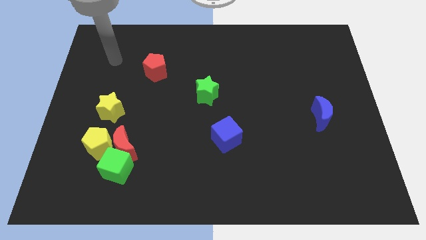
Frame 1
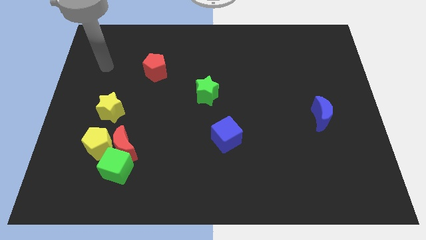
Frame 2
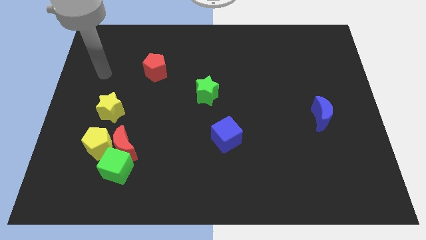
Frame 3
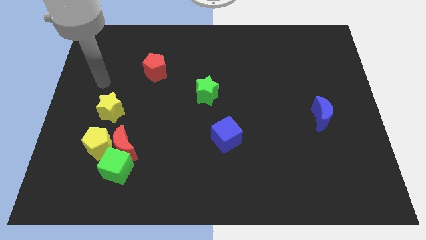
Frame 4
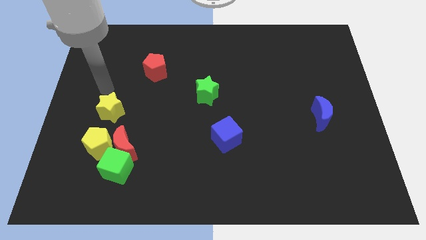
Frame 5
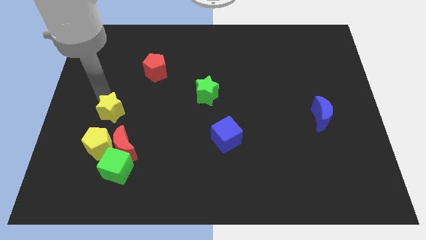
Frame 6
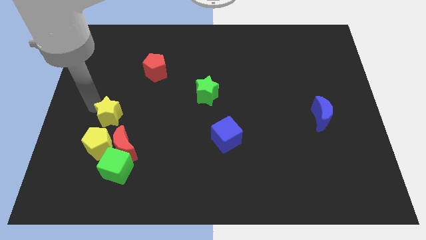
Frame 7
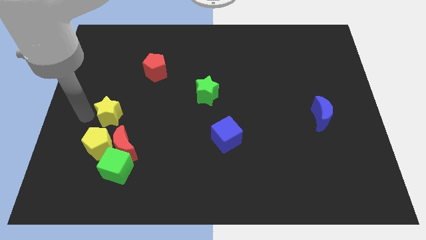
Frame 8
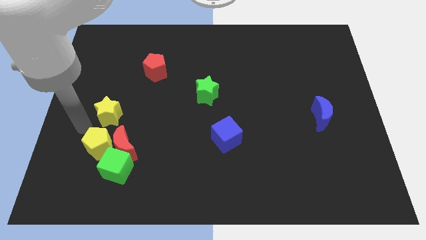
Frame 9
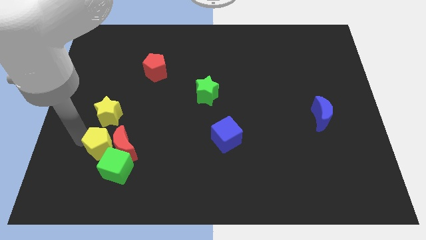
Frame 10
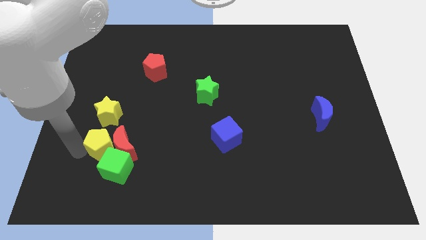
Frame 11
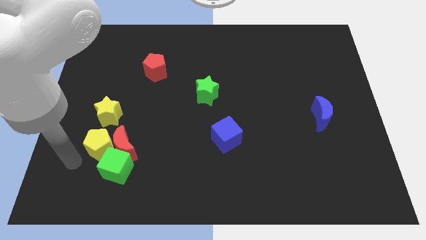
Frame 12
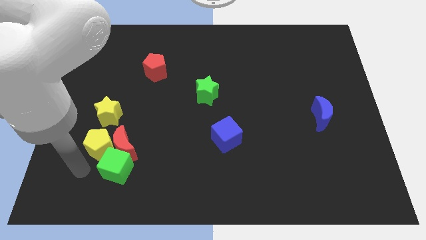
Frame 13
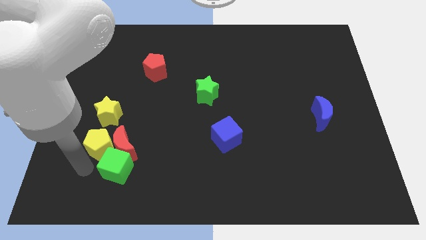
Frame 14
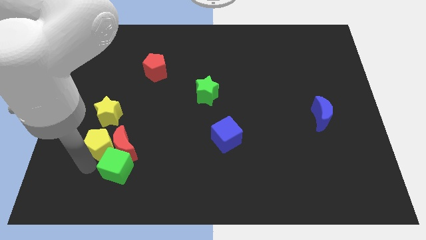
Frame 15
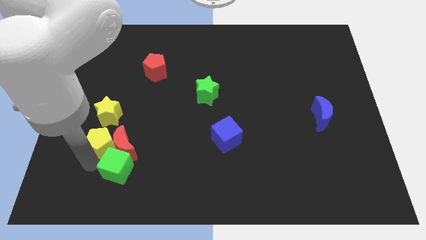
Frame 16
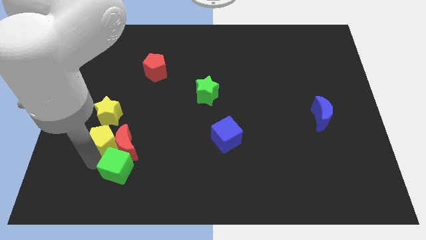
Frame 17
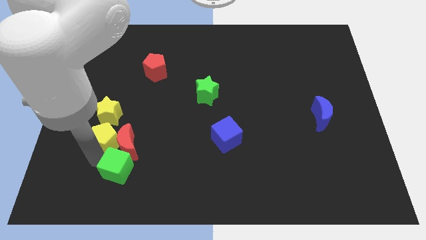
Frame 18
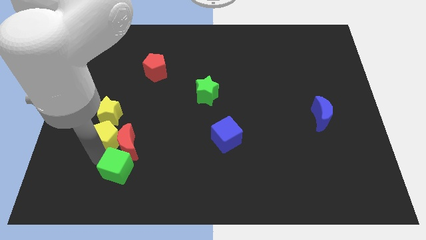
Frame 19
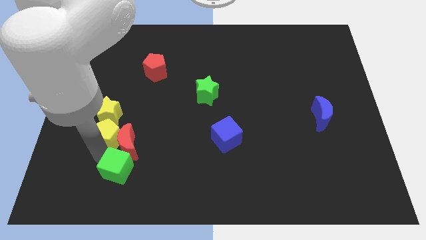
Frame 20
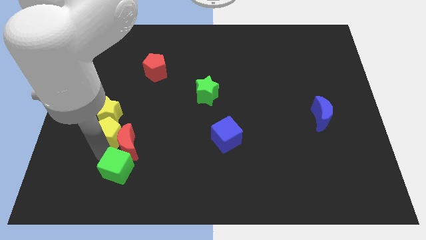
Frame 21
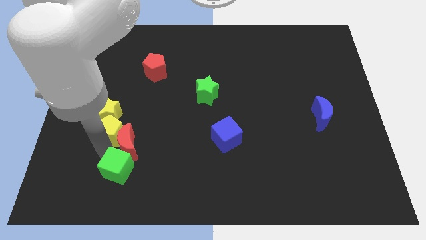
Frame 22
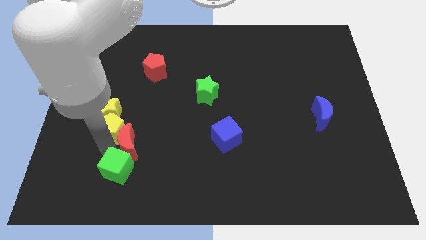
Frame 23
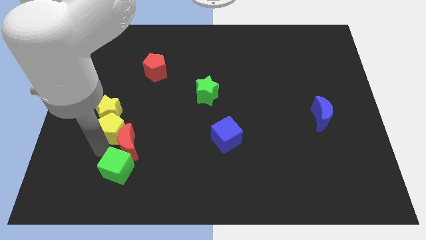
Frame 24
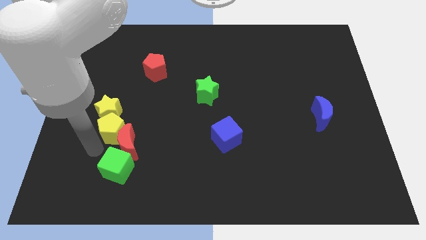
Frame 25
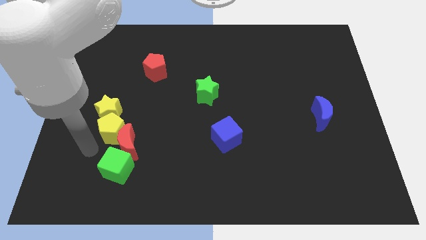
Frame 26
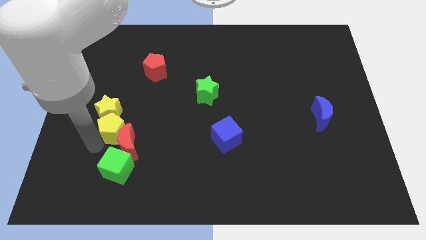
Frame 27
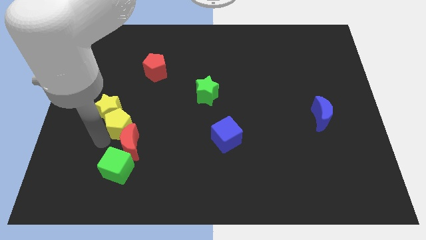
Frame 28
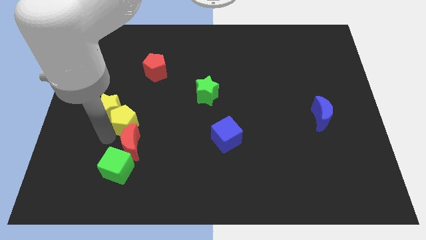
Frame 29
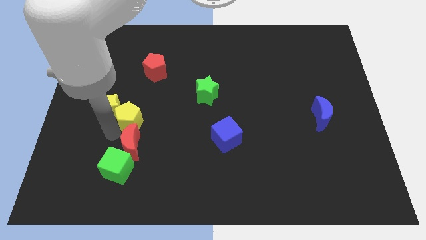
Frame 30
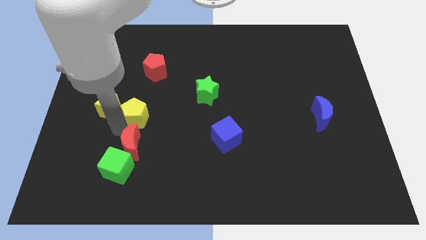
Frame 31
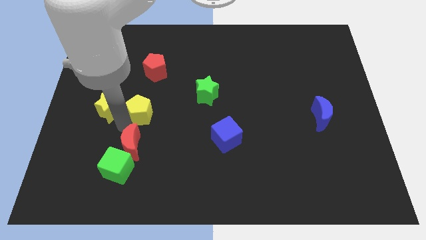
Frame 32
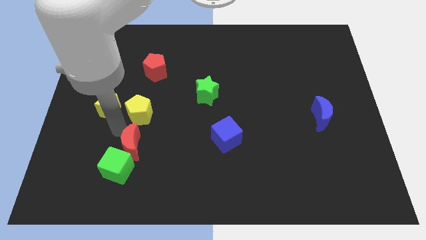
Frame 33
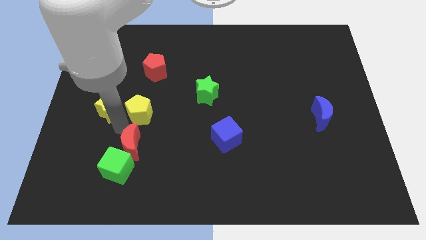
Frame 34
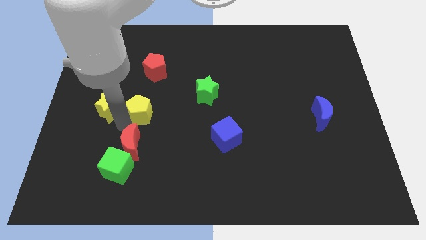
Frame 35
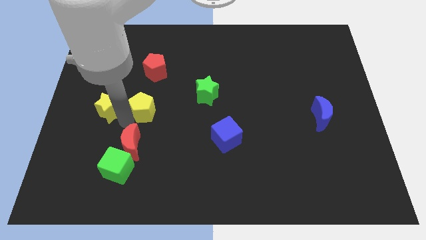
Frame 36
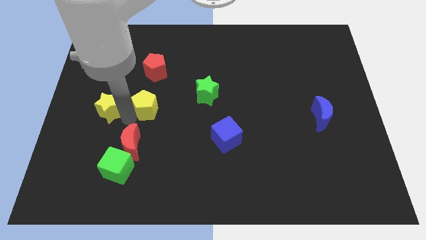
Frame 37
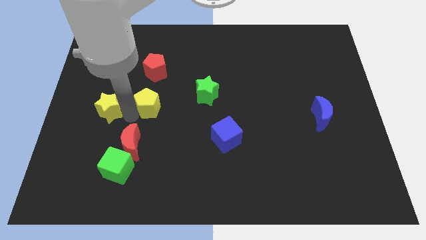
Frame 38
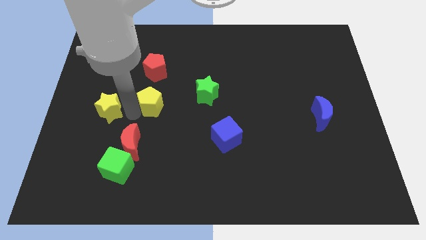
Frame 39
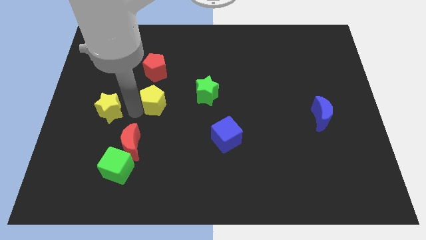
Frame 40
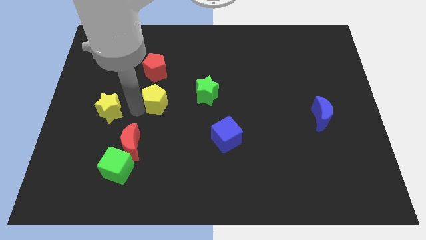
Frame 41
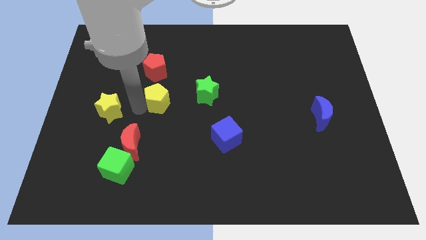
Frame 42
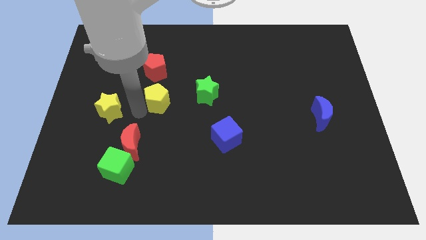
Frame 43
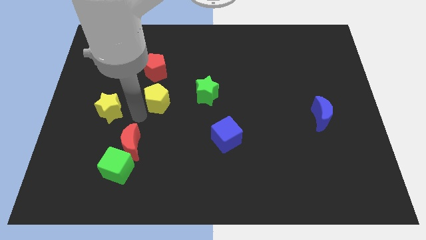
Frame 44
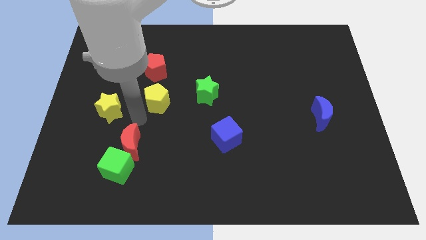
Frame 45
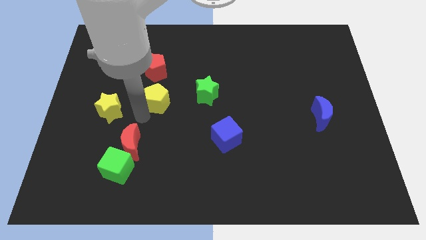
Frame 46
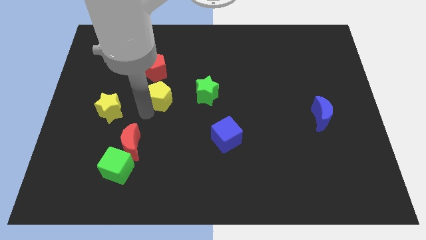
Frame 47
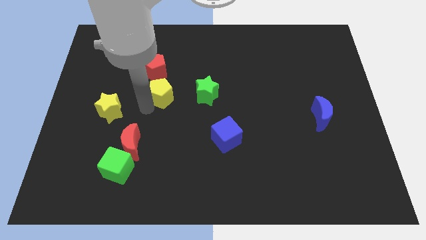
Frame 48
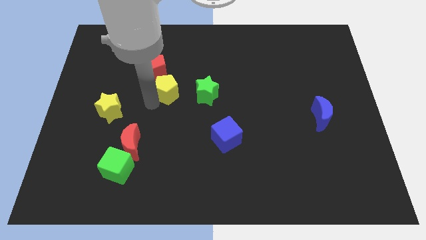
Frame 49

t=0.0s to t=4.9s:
slide the yellow pentagon upwards and to the right diagonally

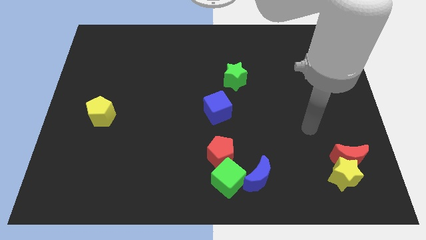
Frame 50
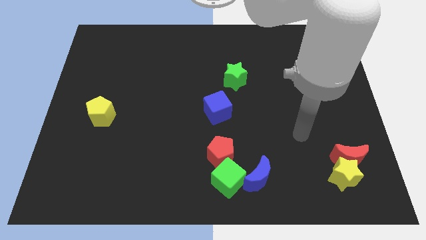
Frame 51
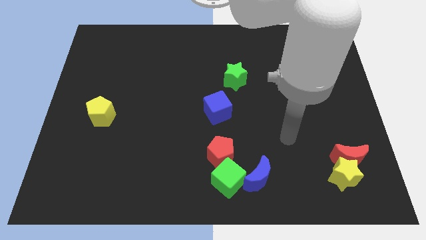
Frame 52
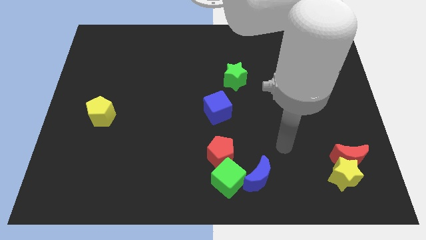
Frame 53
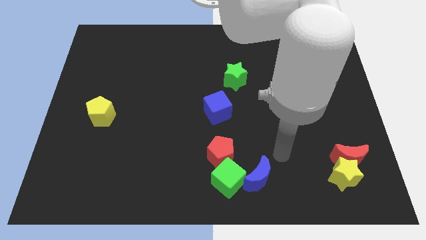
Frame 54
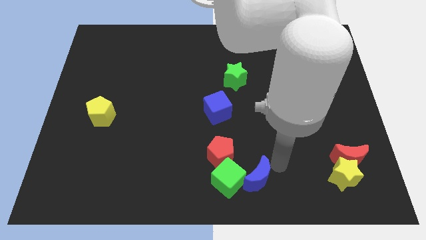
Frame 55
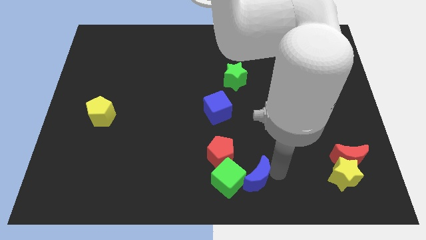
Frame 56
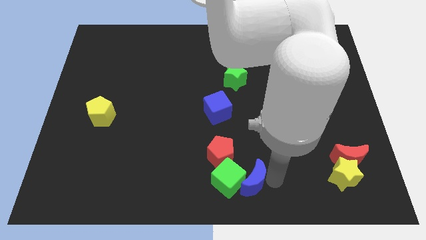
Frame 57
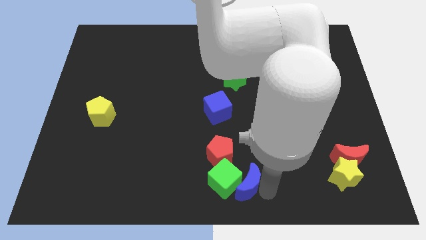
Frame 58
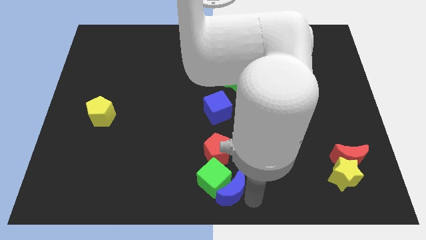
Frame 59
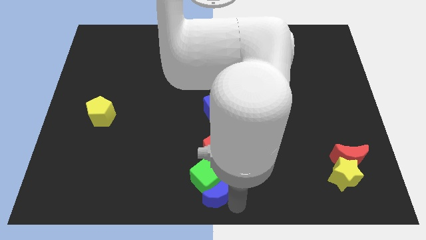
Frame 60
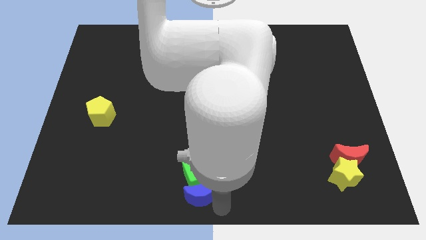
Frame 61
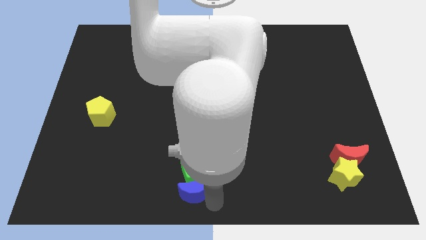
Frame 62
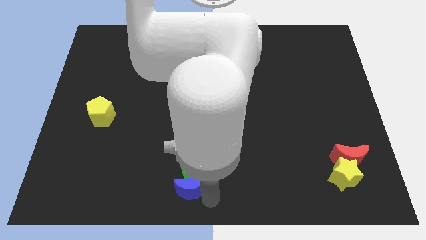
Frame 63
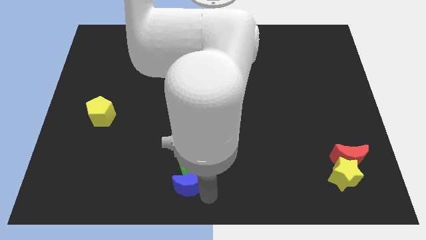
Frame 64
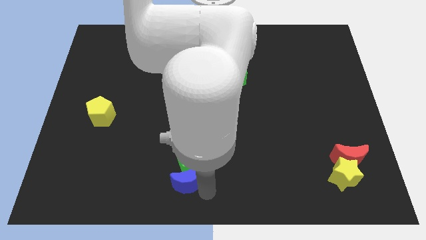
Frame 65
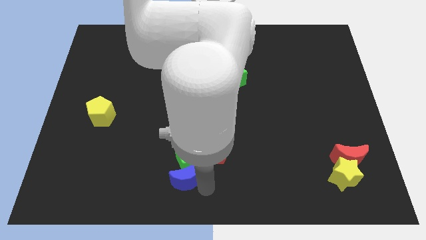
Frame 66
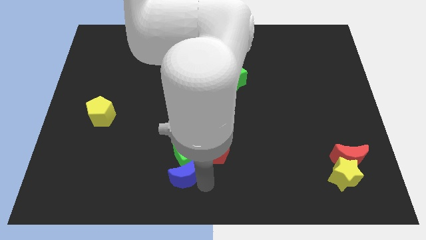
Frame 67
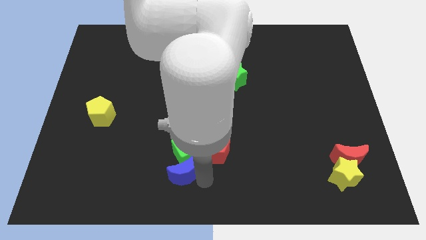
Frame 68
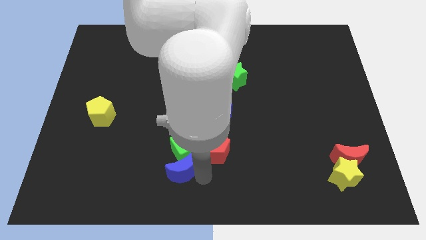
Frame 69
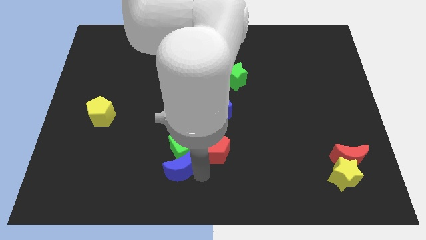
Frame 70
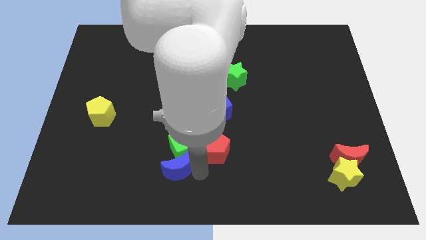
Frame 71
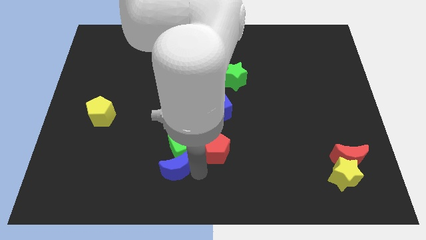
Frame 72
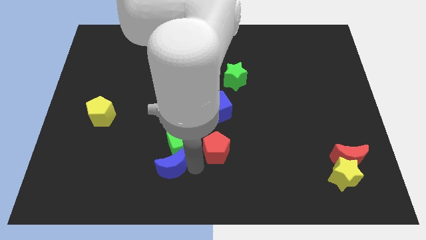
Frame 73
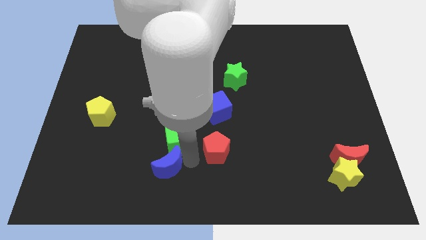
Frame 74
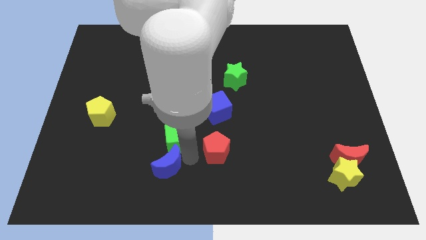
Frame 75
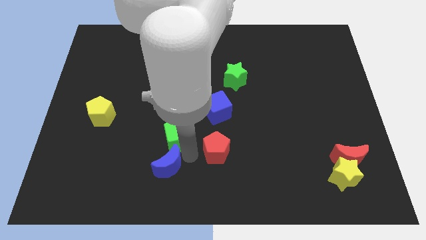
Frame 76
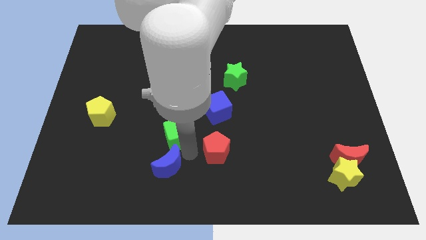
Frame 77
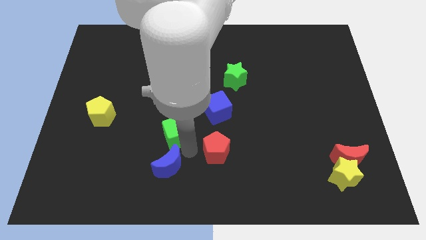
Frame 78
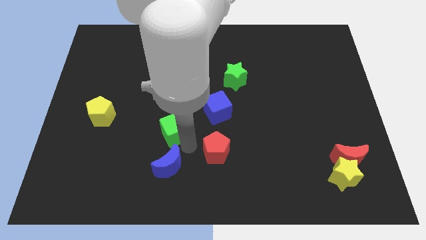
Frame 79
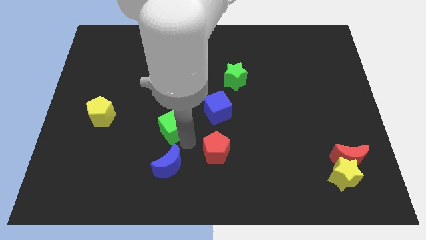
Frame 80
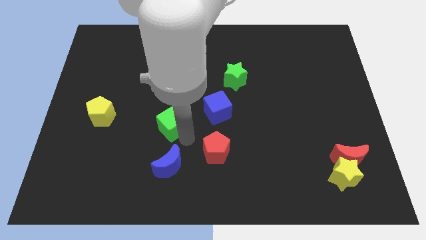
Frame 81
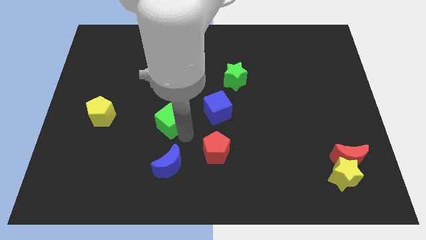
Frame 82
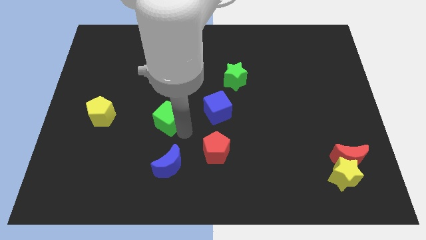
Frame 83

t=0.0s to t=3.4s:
slide the green cube upwards and to the left diagonally
